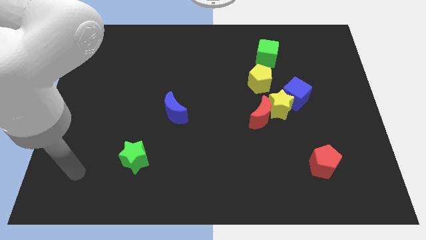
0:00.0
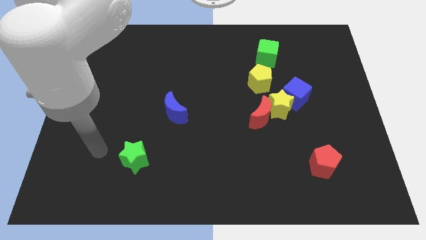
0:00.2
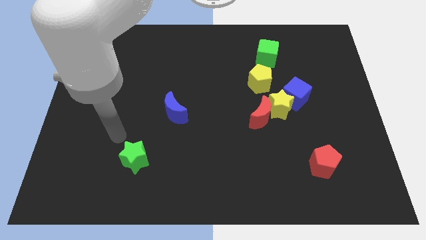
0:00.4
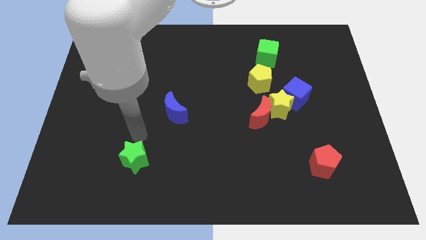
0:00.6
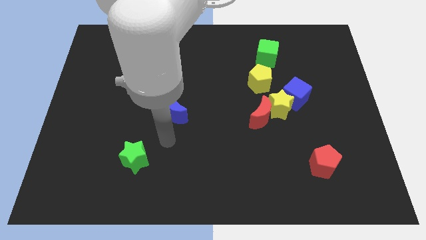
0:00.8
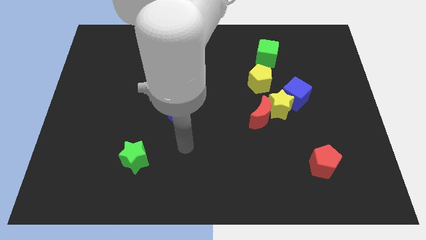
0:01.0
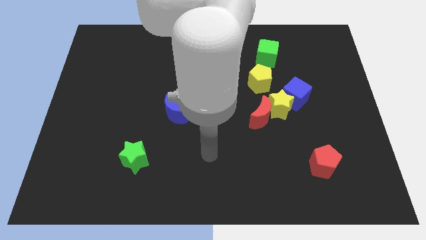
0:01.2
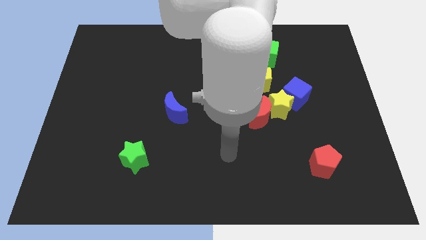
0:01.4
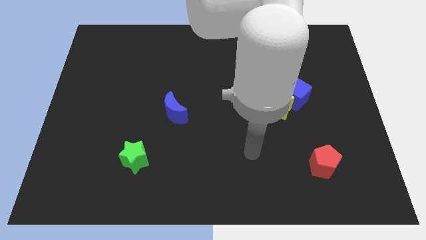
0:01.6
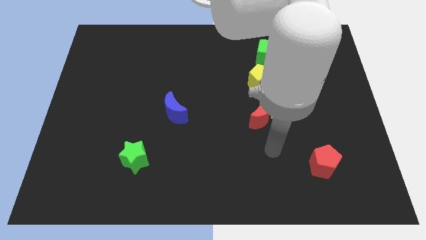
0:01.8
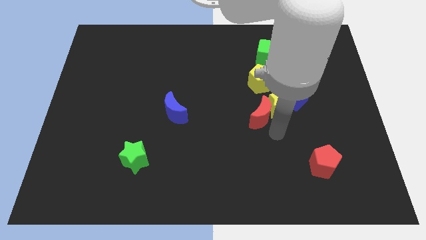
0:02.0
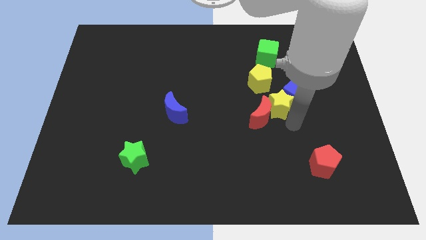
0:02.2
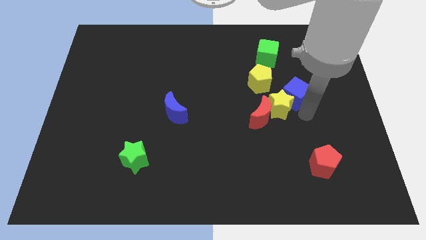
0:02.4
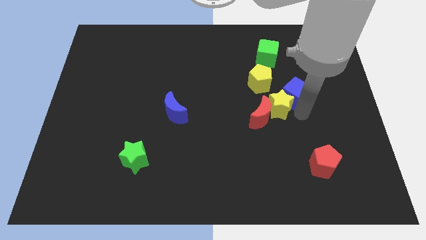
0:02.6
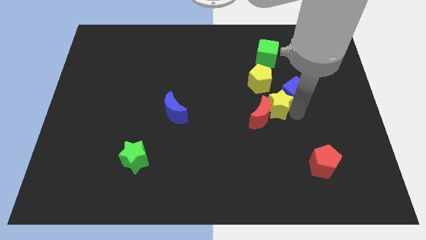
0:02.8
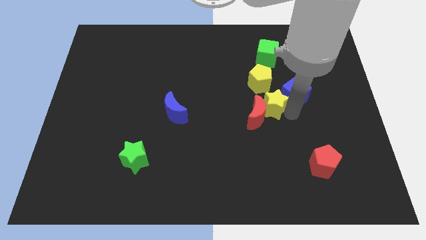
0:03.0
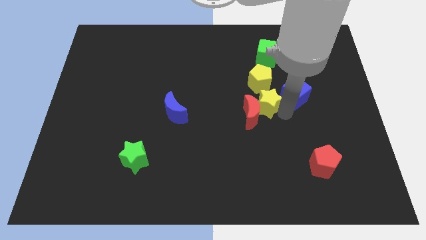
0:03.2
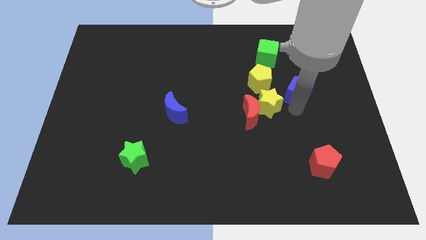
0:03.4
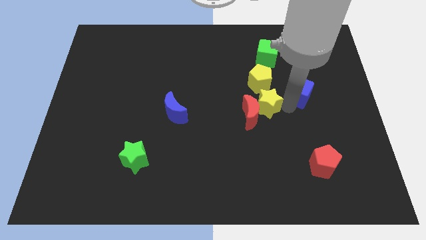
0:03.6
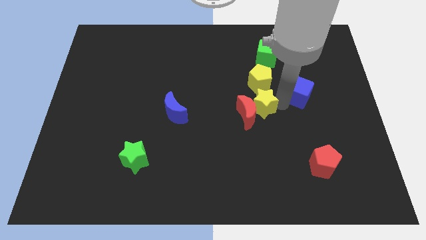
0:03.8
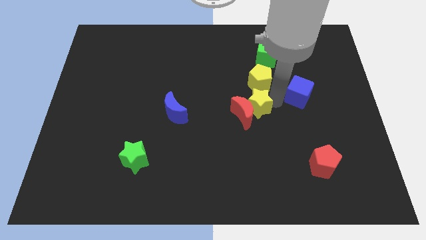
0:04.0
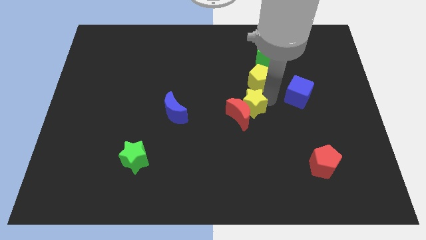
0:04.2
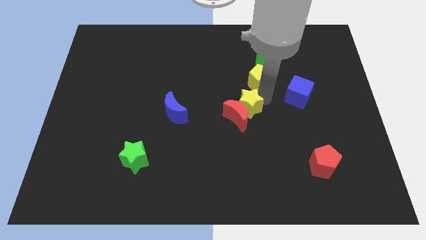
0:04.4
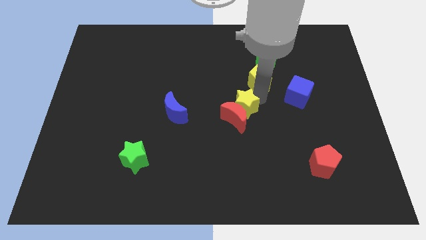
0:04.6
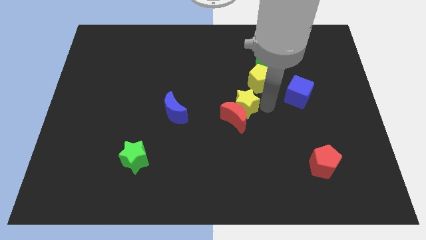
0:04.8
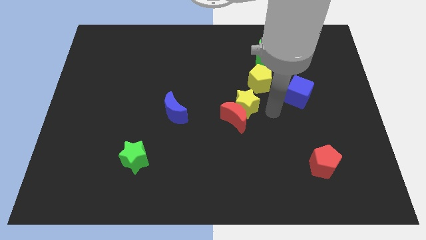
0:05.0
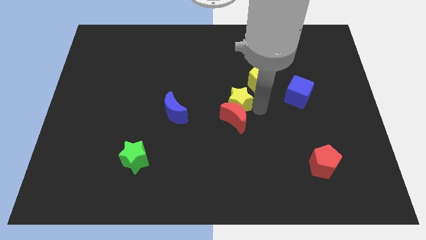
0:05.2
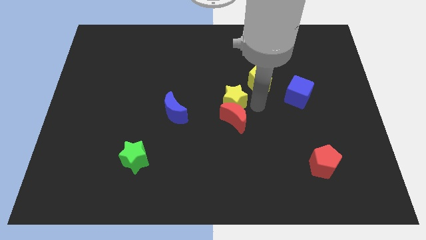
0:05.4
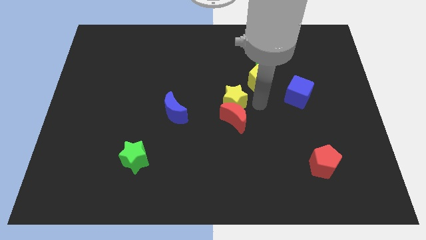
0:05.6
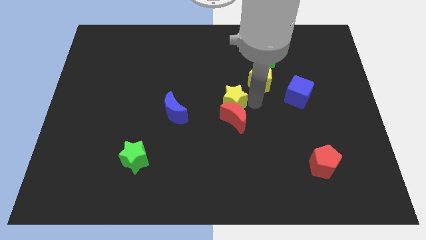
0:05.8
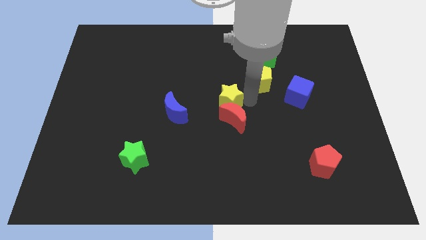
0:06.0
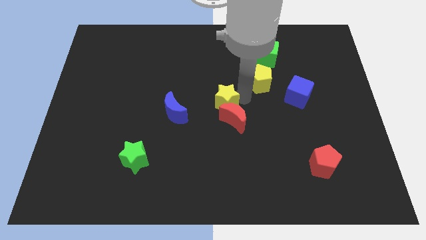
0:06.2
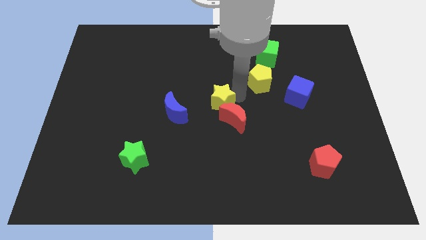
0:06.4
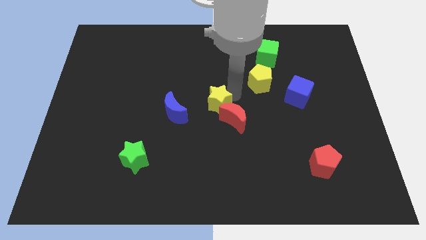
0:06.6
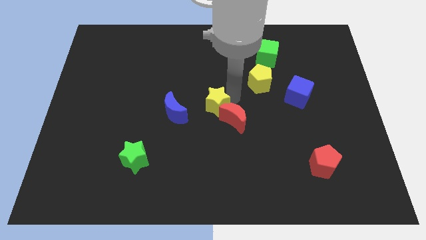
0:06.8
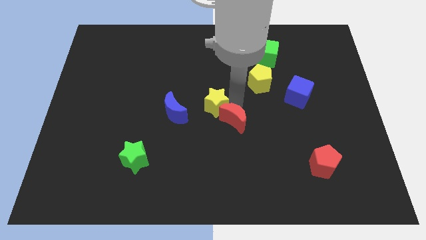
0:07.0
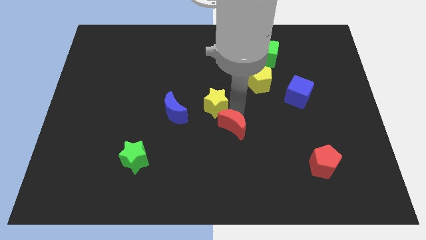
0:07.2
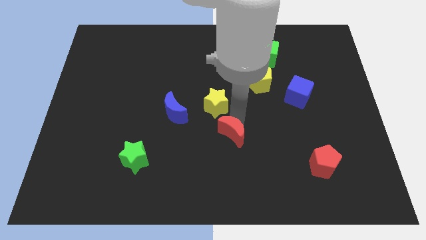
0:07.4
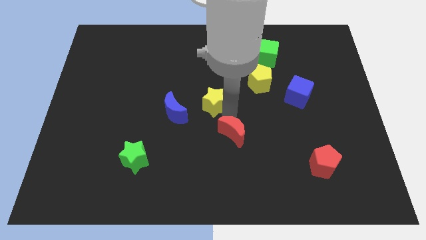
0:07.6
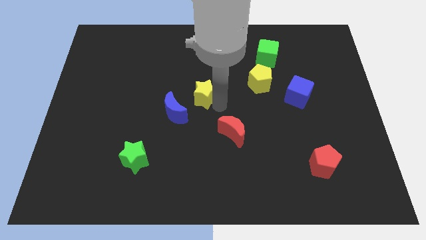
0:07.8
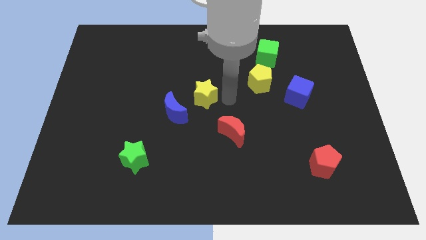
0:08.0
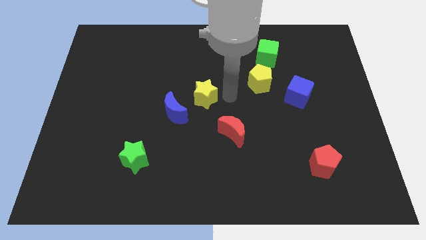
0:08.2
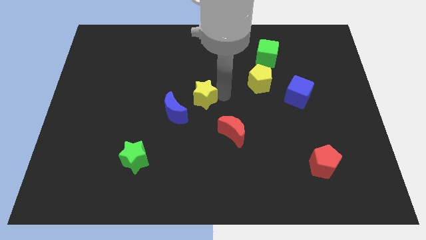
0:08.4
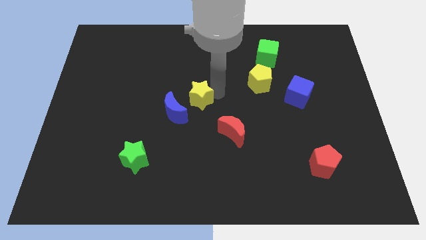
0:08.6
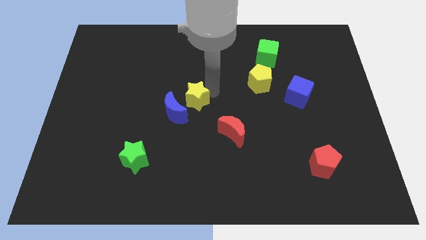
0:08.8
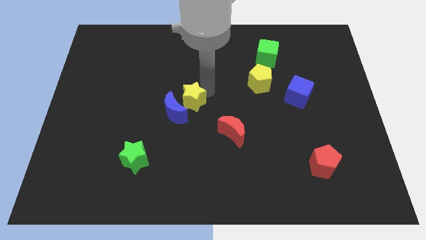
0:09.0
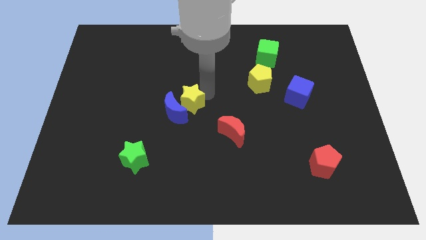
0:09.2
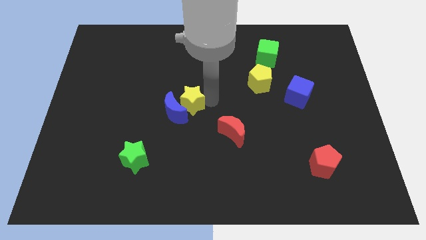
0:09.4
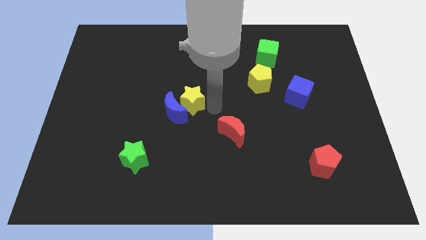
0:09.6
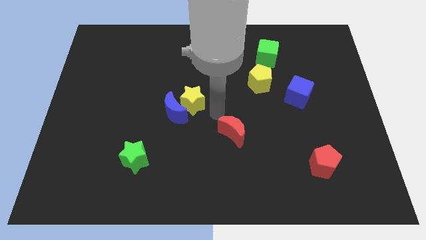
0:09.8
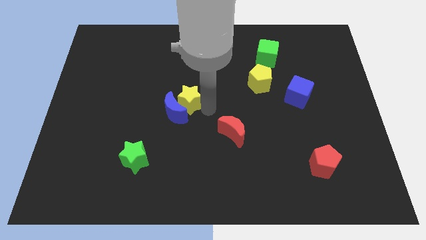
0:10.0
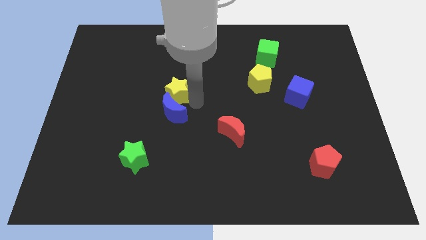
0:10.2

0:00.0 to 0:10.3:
slide the yellow star to the top left of the blue moon

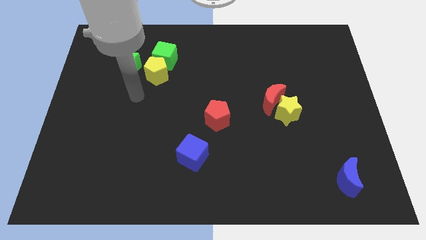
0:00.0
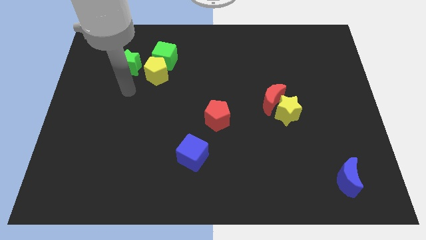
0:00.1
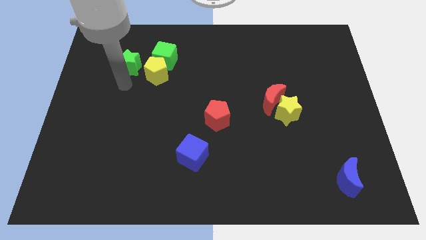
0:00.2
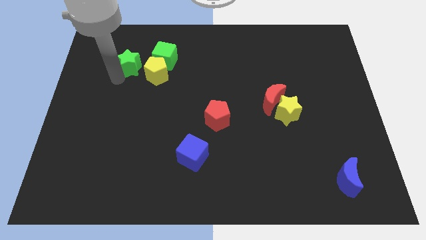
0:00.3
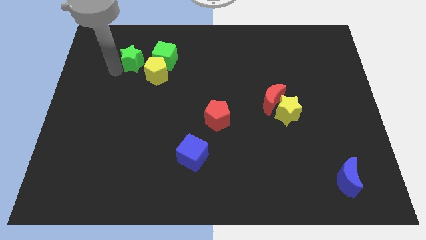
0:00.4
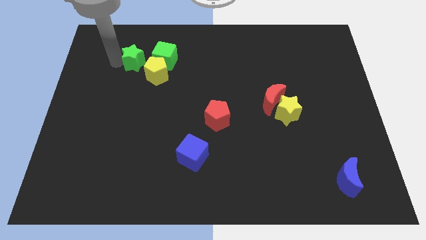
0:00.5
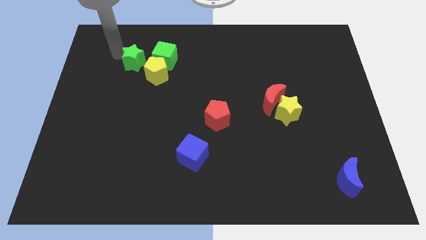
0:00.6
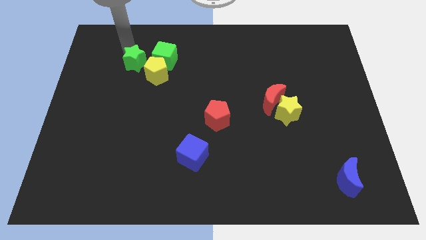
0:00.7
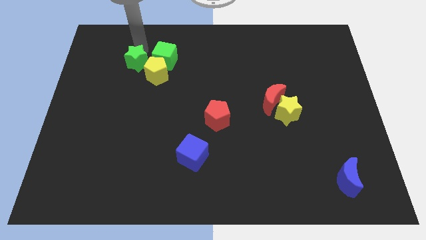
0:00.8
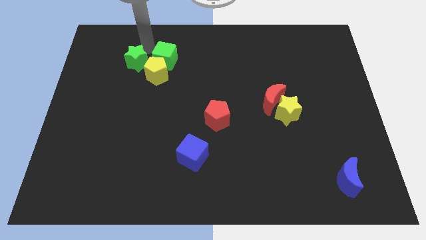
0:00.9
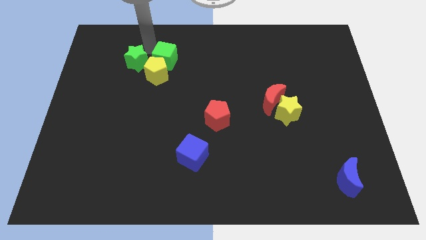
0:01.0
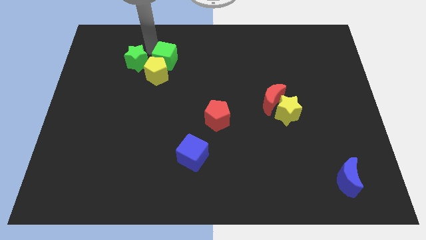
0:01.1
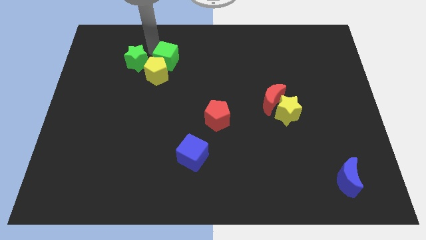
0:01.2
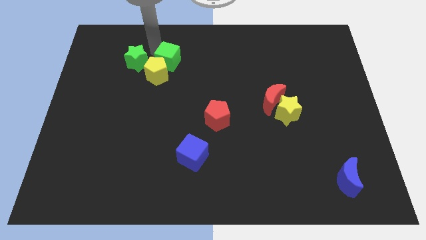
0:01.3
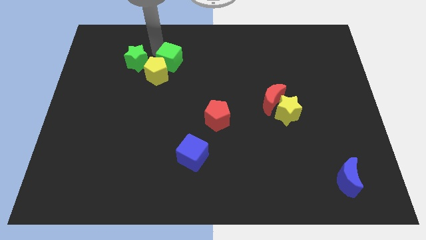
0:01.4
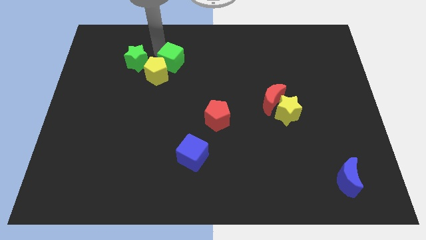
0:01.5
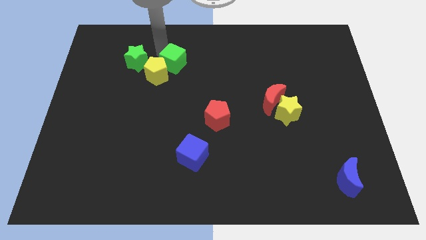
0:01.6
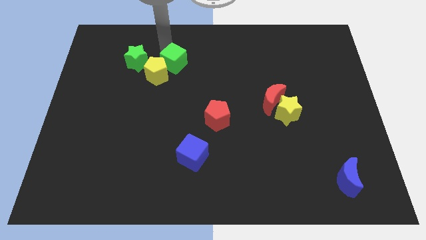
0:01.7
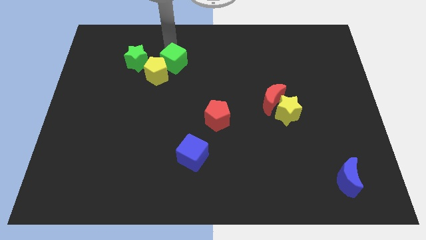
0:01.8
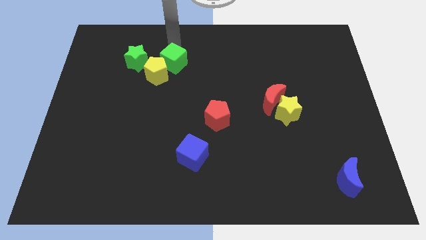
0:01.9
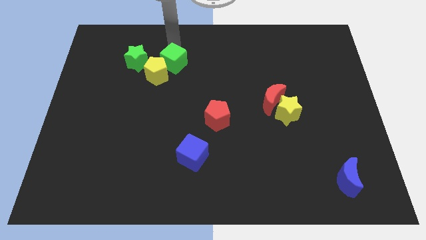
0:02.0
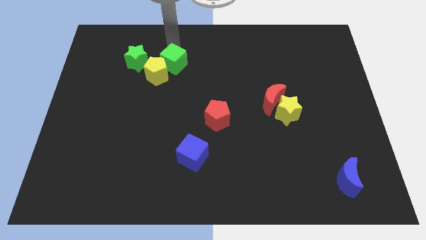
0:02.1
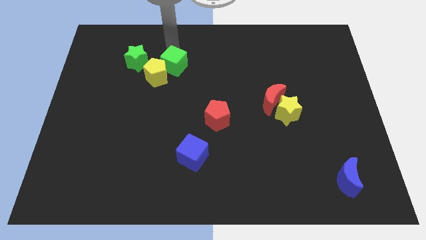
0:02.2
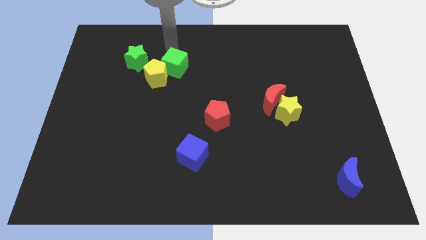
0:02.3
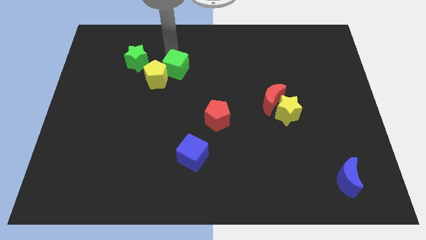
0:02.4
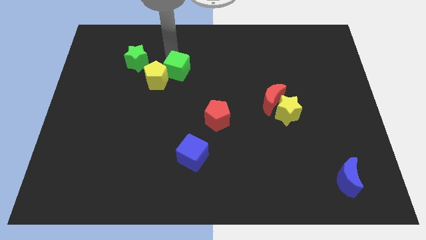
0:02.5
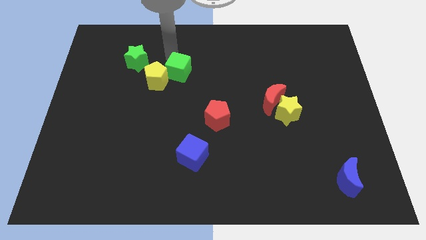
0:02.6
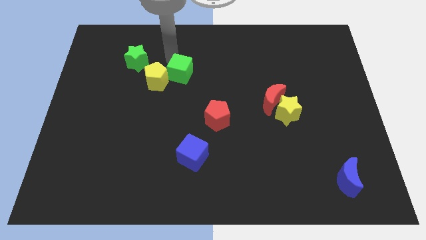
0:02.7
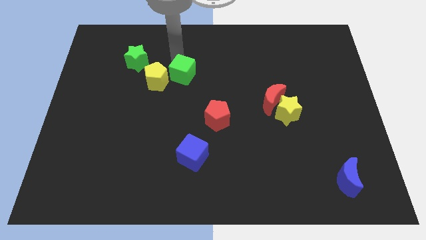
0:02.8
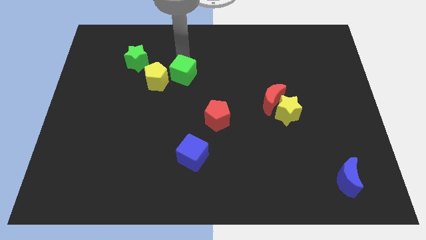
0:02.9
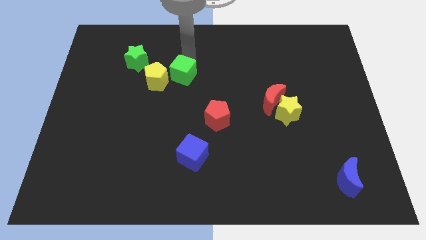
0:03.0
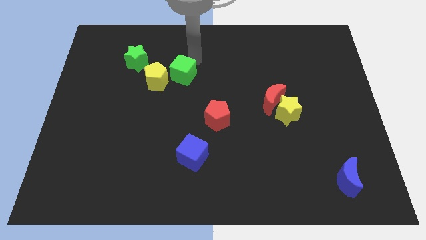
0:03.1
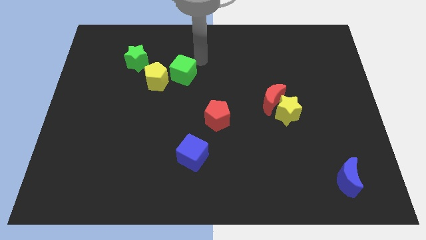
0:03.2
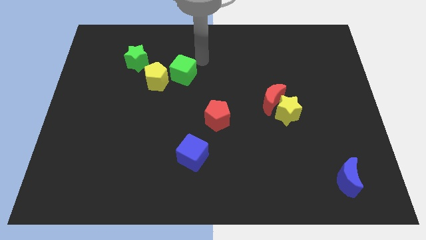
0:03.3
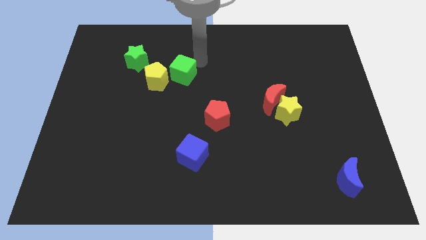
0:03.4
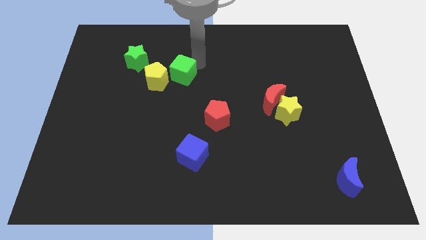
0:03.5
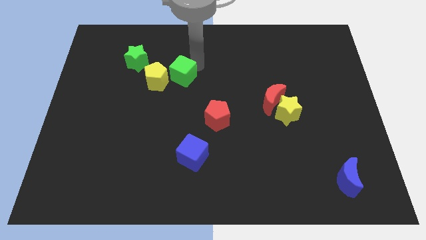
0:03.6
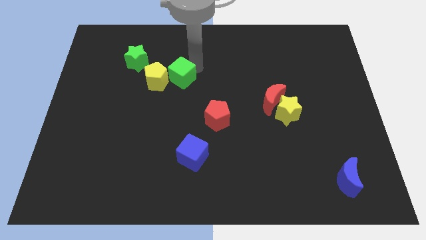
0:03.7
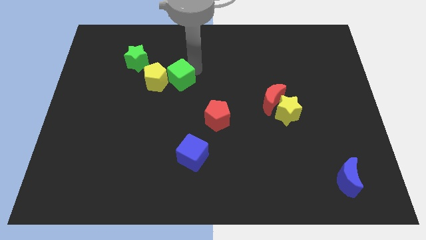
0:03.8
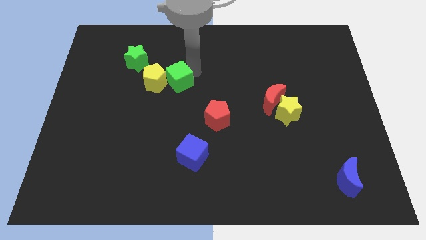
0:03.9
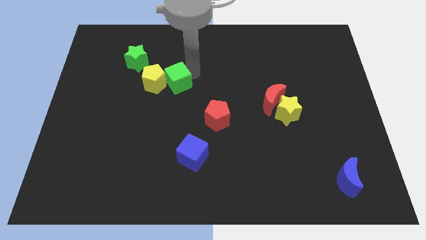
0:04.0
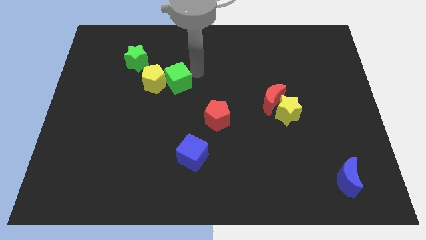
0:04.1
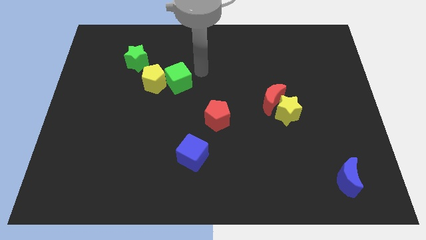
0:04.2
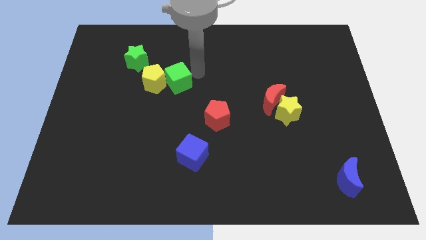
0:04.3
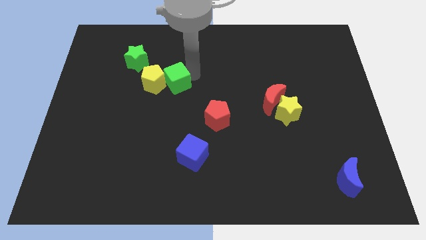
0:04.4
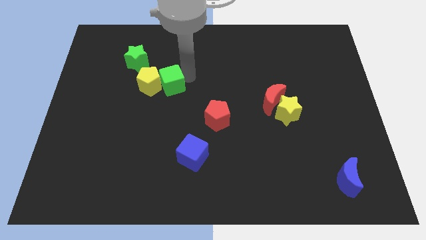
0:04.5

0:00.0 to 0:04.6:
slide the green cube to the bottom right side of the green star
